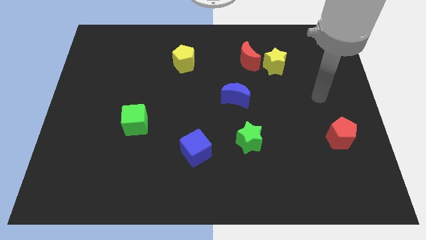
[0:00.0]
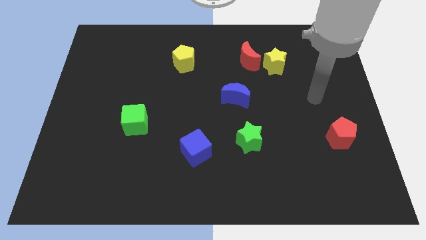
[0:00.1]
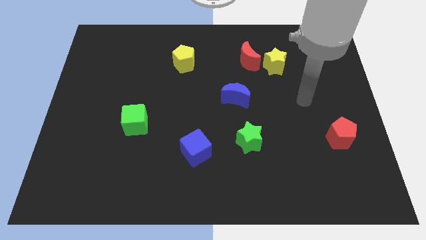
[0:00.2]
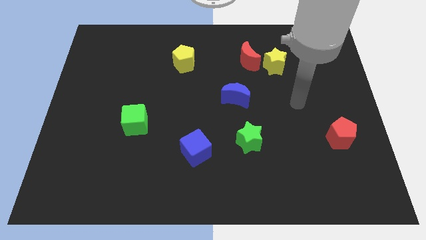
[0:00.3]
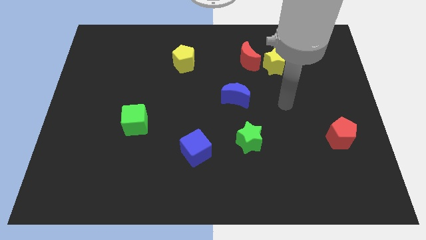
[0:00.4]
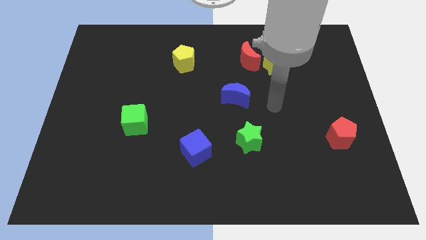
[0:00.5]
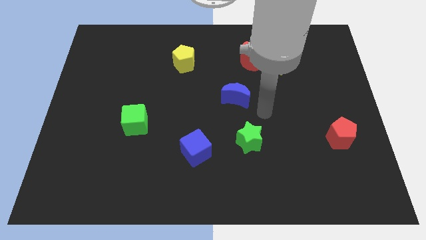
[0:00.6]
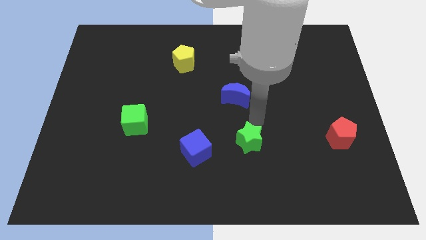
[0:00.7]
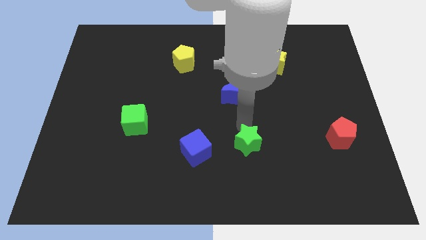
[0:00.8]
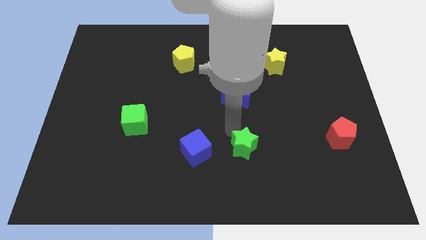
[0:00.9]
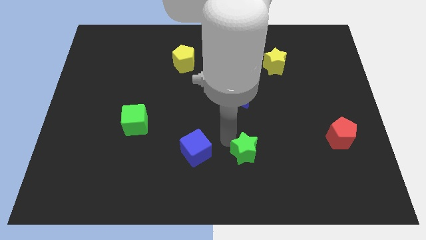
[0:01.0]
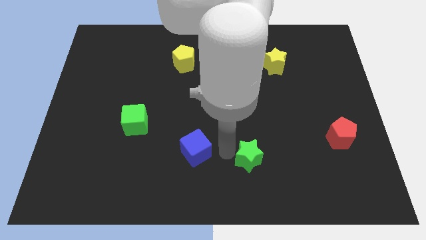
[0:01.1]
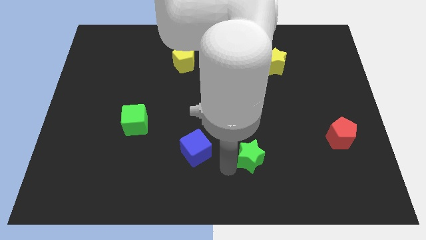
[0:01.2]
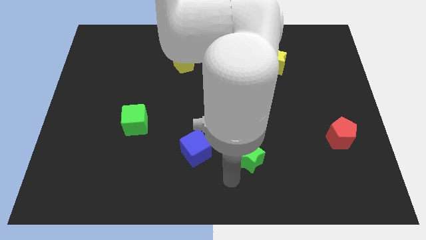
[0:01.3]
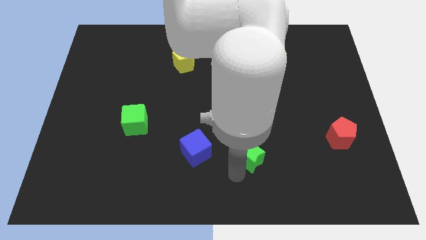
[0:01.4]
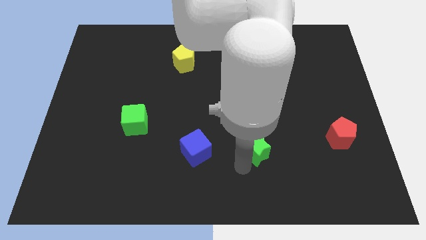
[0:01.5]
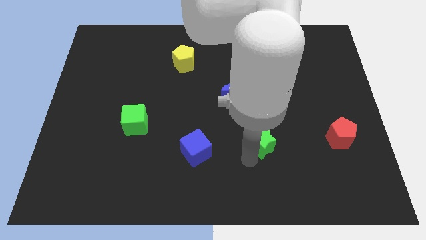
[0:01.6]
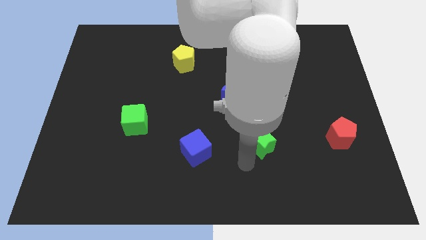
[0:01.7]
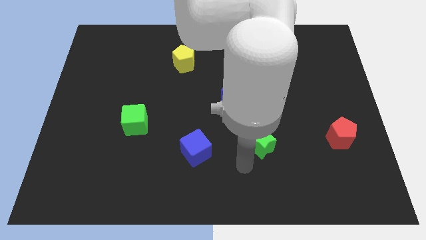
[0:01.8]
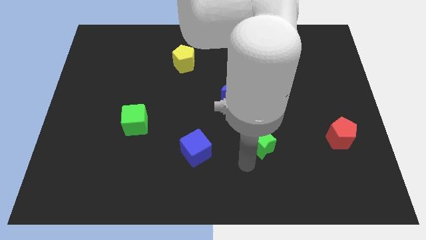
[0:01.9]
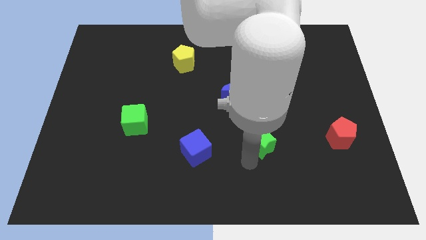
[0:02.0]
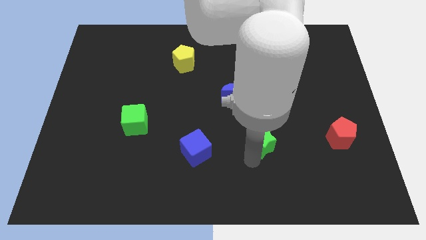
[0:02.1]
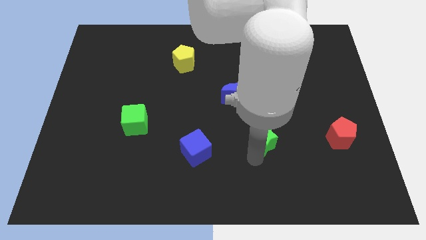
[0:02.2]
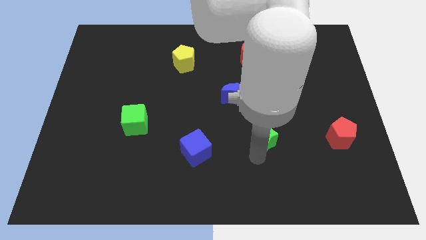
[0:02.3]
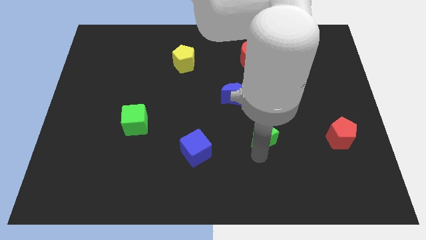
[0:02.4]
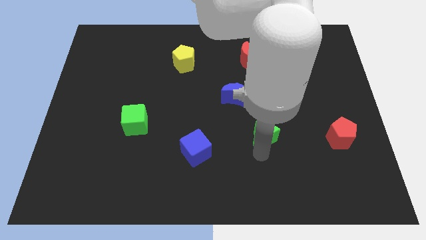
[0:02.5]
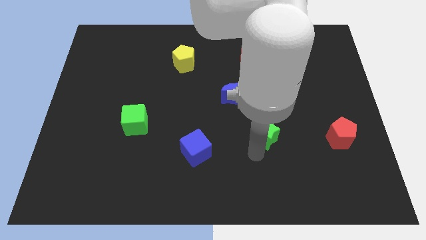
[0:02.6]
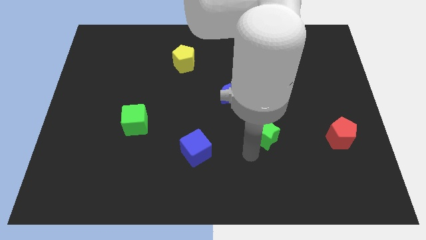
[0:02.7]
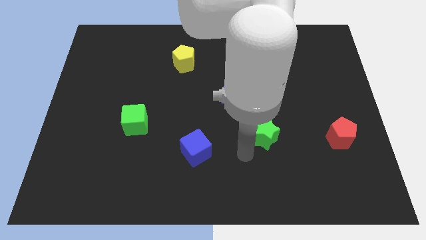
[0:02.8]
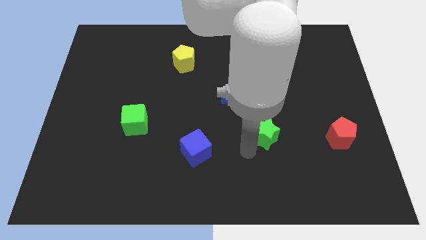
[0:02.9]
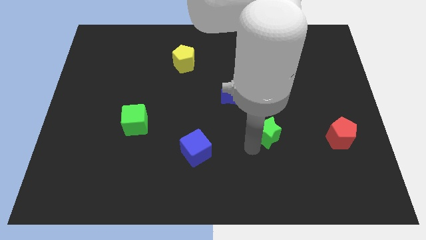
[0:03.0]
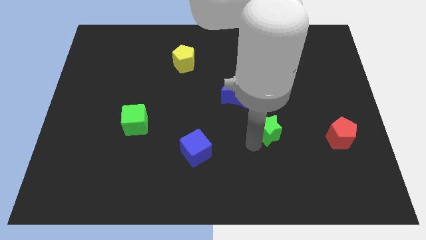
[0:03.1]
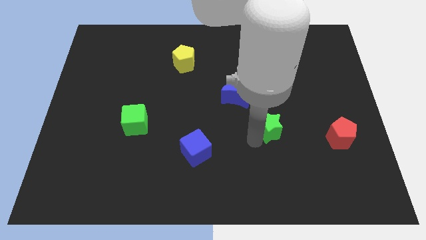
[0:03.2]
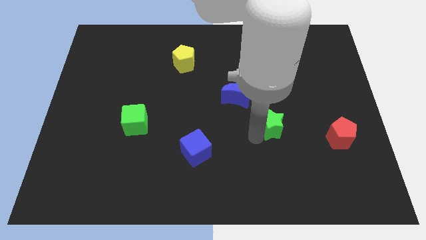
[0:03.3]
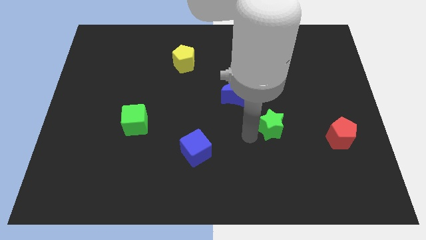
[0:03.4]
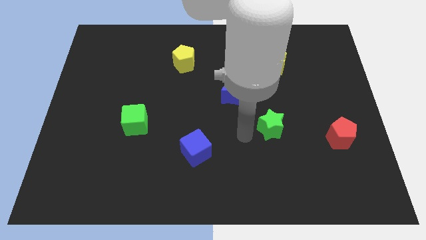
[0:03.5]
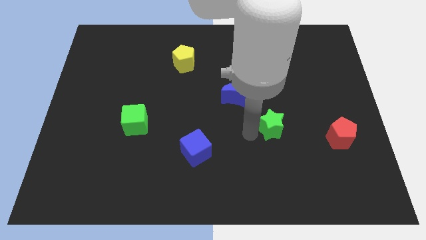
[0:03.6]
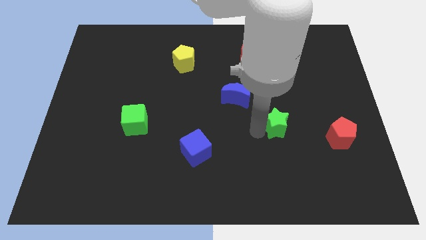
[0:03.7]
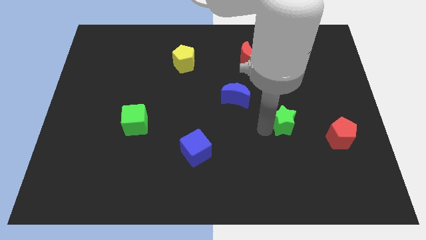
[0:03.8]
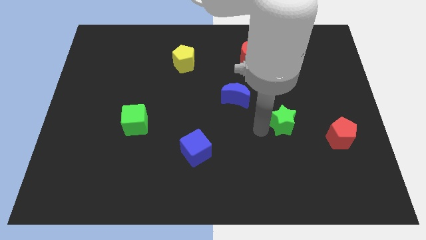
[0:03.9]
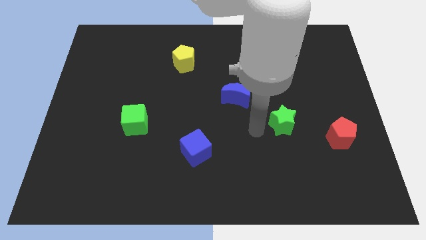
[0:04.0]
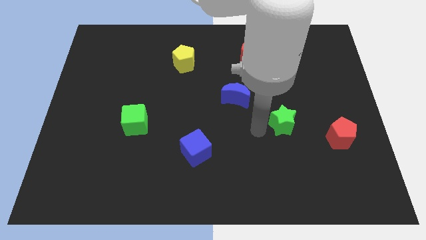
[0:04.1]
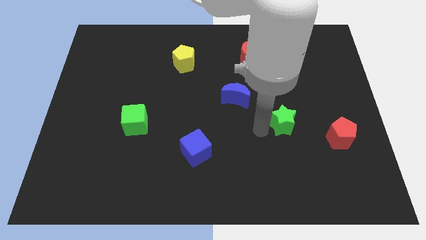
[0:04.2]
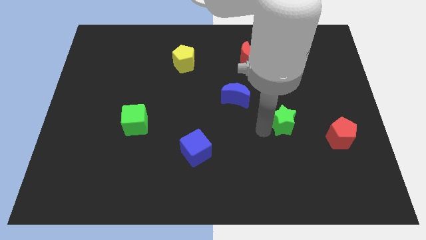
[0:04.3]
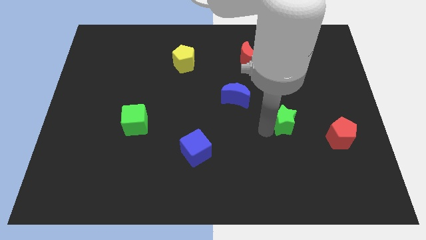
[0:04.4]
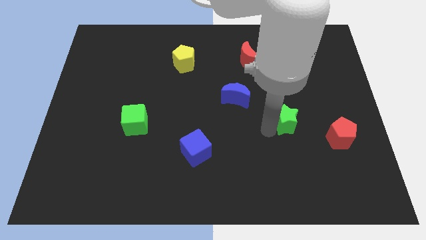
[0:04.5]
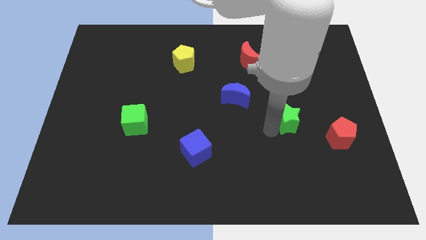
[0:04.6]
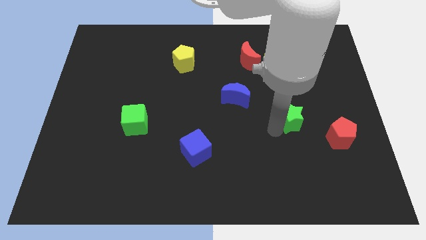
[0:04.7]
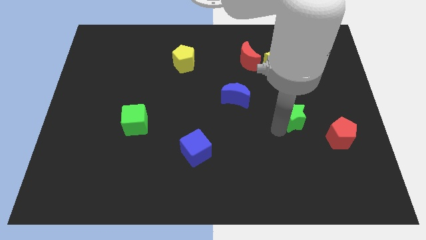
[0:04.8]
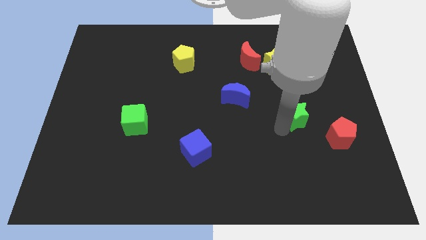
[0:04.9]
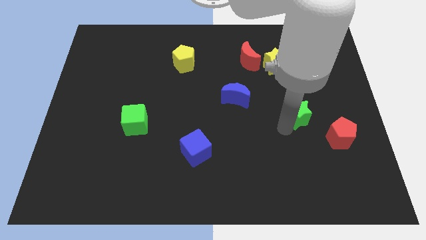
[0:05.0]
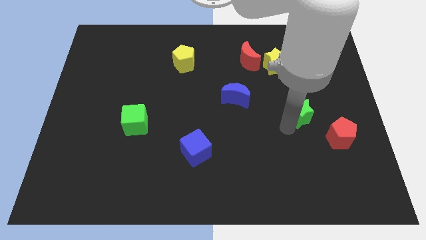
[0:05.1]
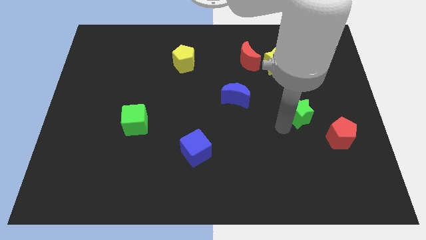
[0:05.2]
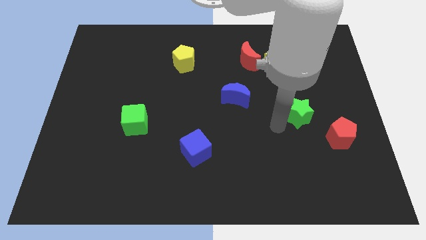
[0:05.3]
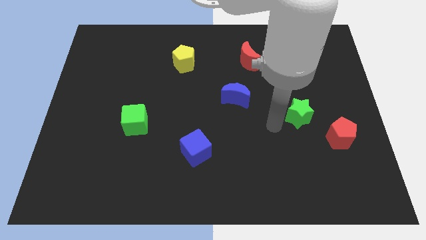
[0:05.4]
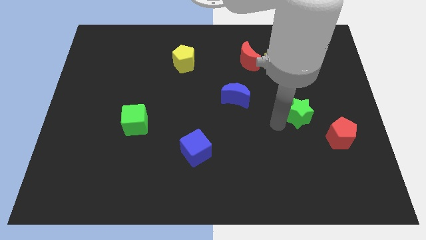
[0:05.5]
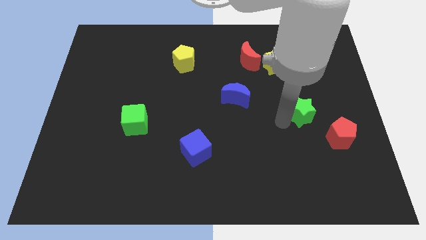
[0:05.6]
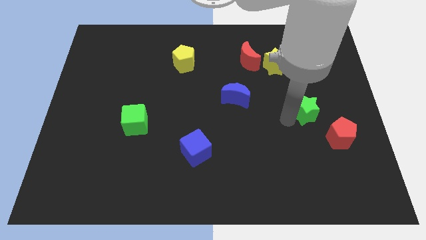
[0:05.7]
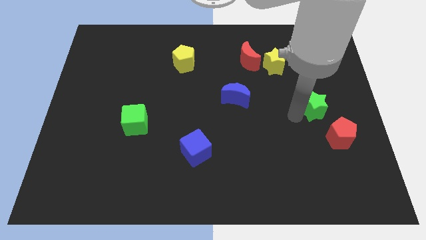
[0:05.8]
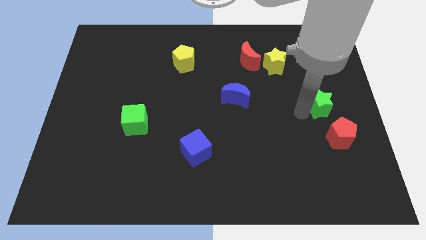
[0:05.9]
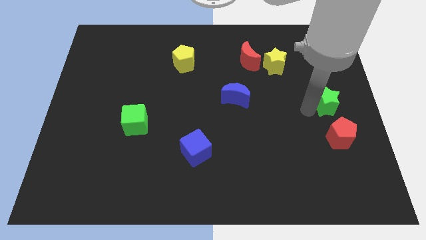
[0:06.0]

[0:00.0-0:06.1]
slide the green star to the center right

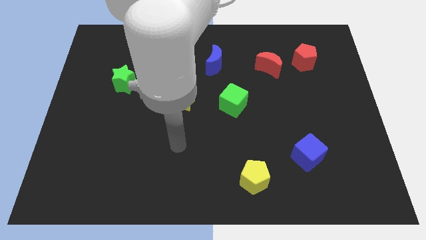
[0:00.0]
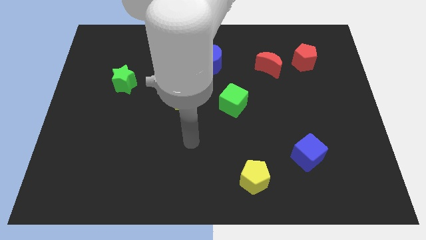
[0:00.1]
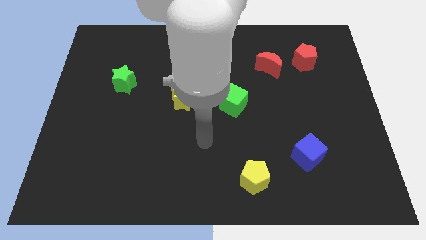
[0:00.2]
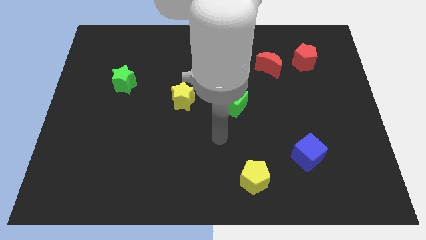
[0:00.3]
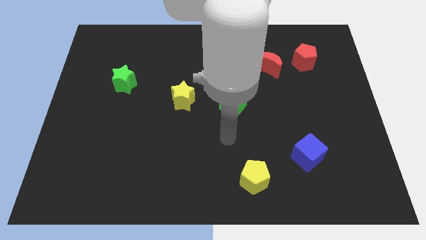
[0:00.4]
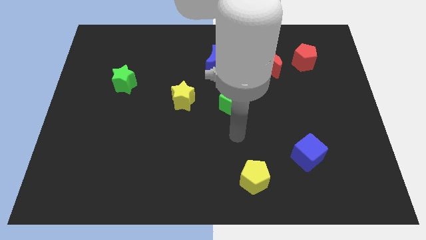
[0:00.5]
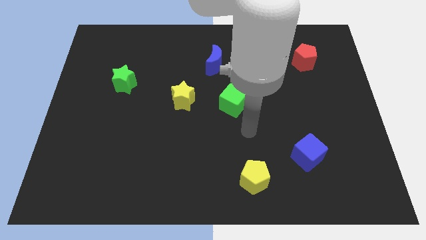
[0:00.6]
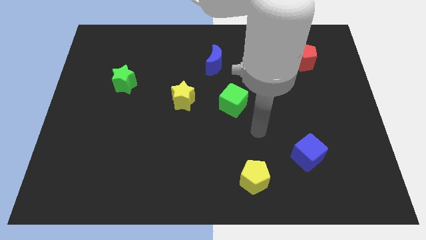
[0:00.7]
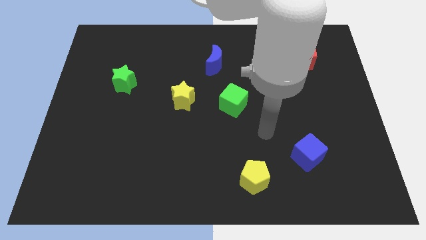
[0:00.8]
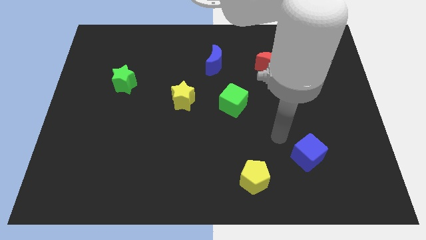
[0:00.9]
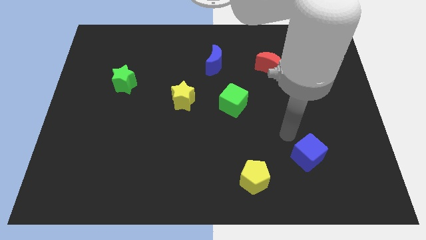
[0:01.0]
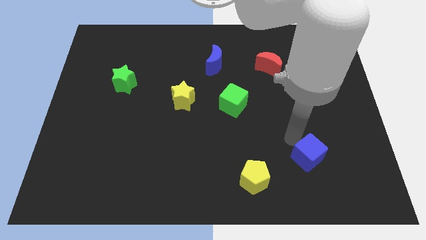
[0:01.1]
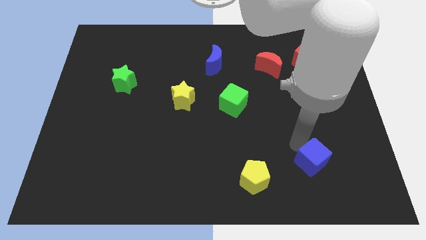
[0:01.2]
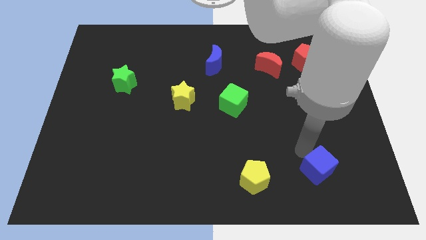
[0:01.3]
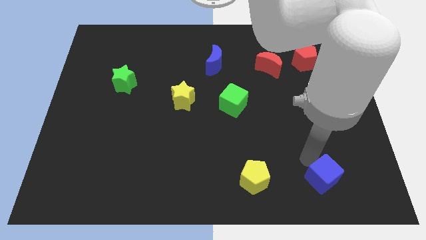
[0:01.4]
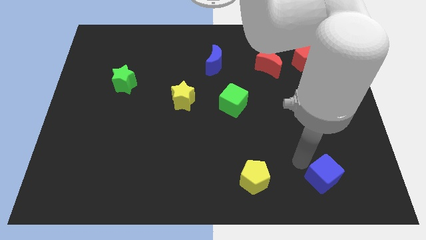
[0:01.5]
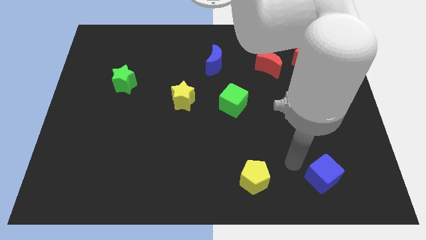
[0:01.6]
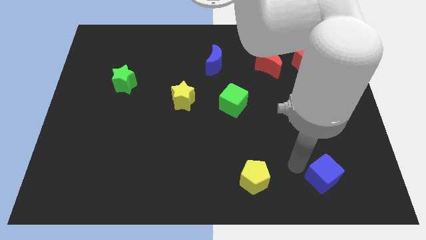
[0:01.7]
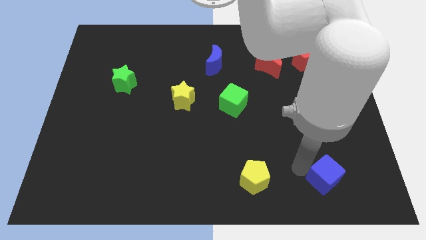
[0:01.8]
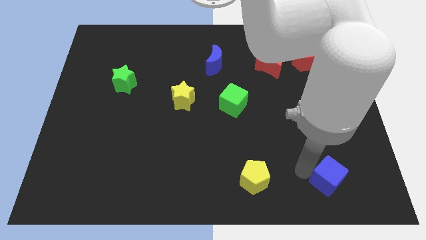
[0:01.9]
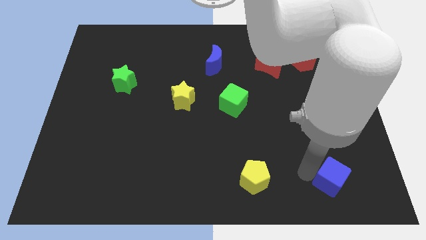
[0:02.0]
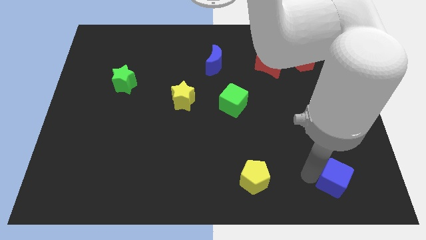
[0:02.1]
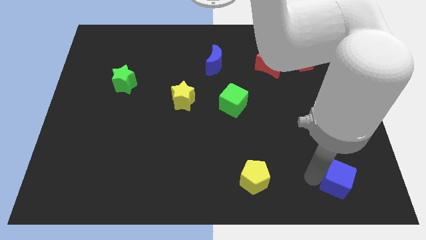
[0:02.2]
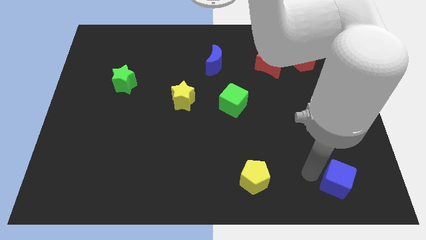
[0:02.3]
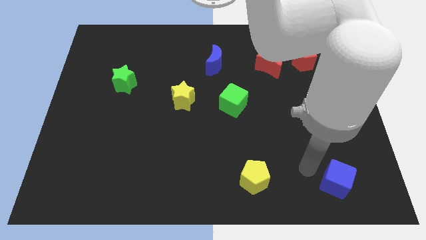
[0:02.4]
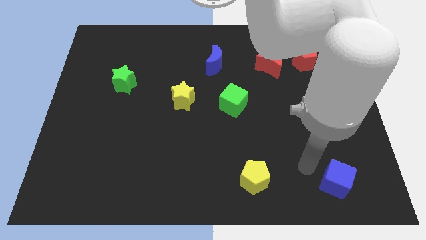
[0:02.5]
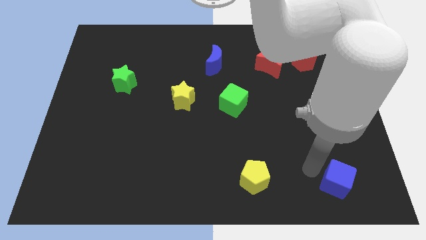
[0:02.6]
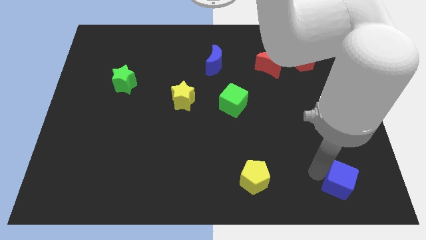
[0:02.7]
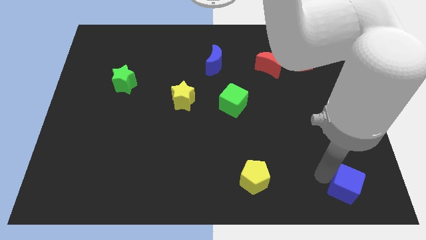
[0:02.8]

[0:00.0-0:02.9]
move the blue cube to the bottom right corner
